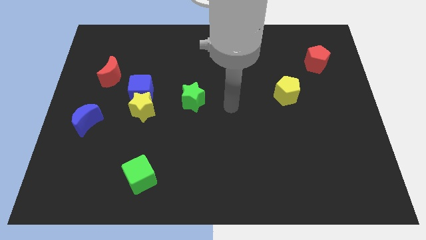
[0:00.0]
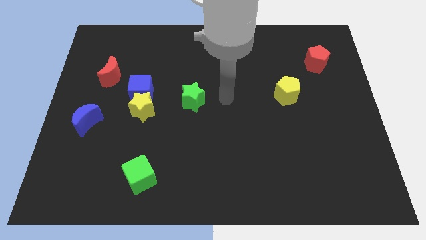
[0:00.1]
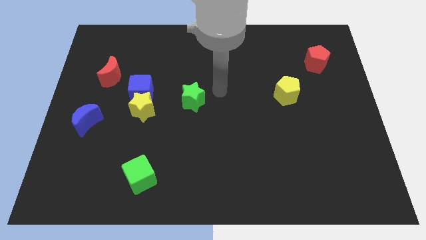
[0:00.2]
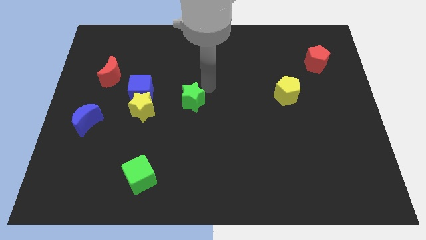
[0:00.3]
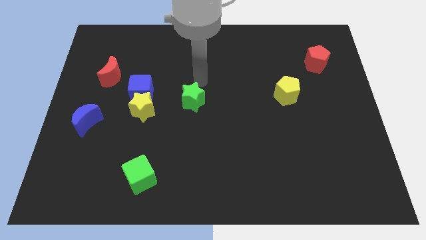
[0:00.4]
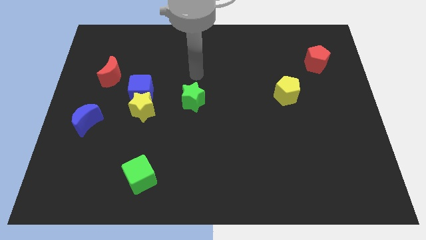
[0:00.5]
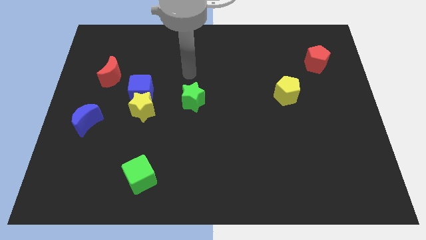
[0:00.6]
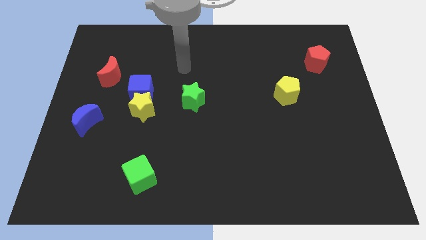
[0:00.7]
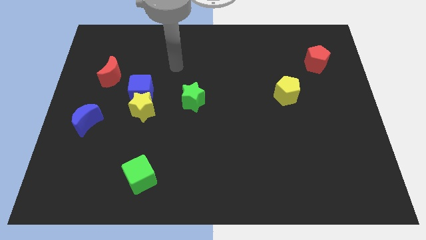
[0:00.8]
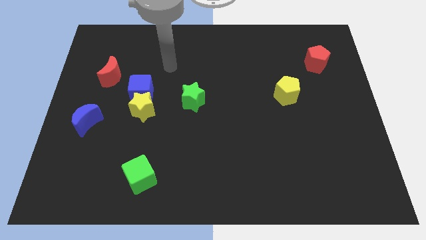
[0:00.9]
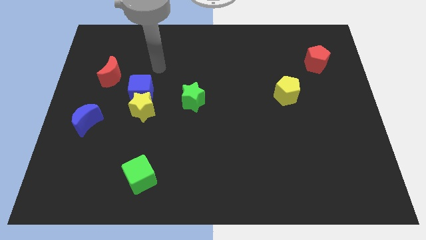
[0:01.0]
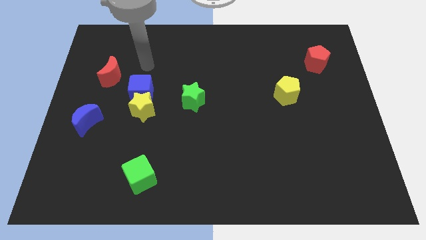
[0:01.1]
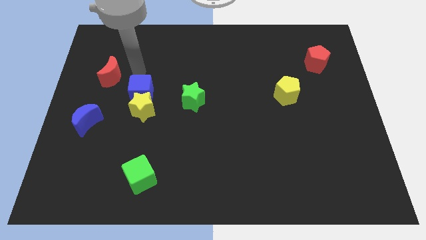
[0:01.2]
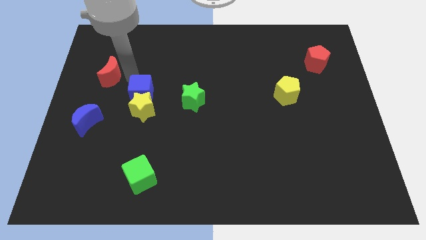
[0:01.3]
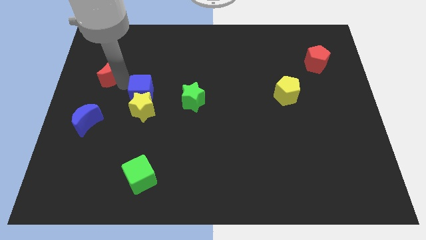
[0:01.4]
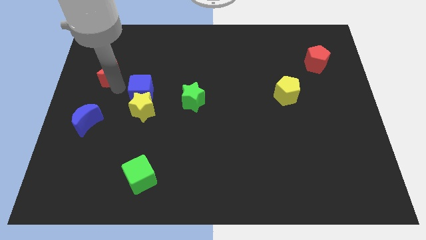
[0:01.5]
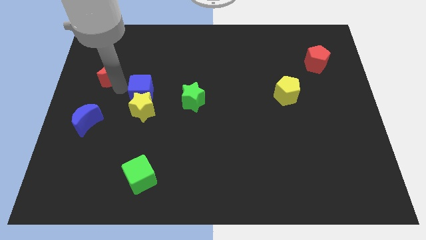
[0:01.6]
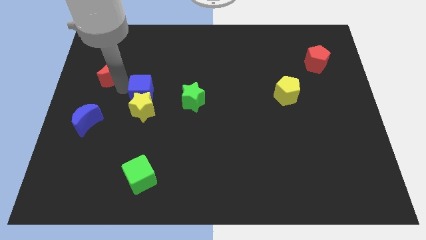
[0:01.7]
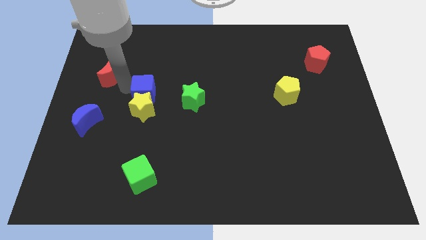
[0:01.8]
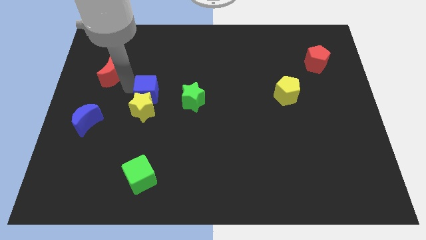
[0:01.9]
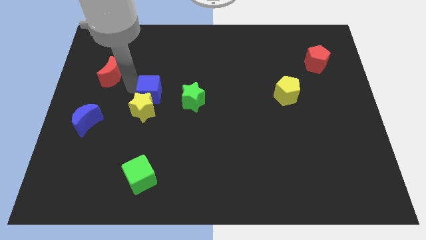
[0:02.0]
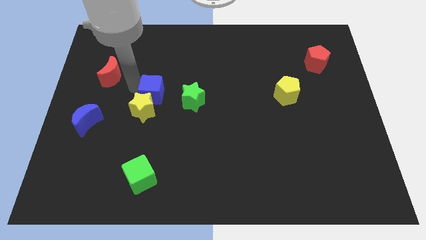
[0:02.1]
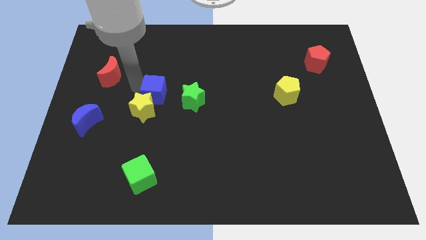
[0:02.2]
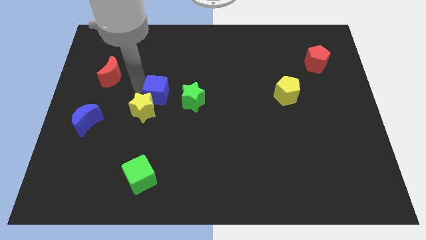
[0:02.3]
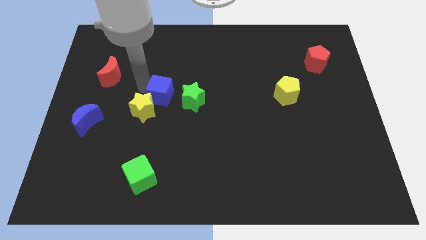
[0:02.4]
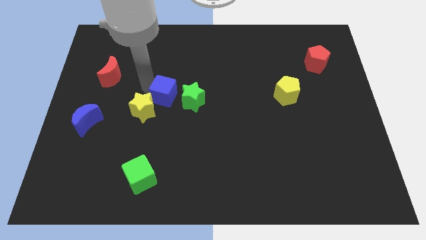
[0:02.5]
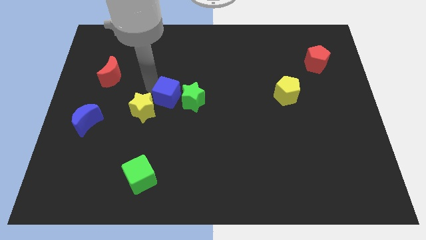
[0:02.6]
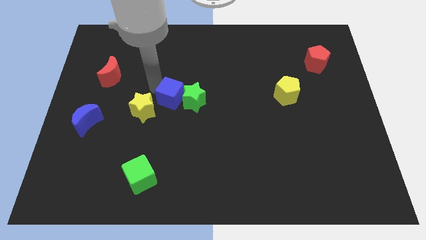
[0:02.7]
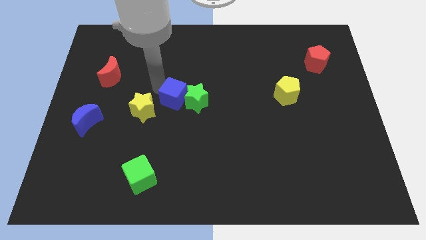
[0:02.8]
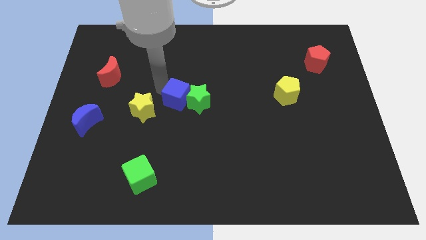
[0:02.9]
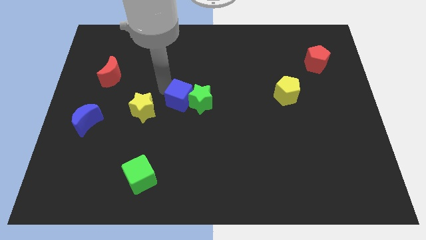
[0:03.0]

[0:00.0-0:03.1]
slightly push the blue cube downwards and to the right

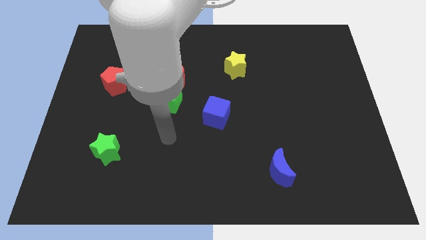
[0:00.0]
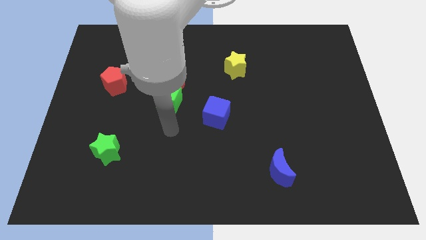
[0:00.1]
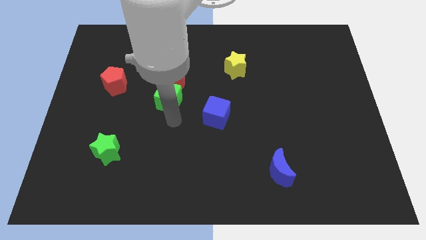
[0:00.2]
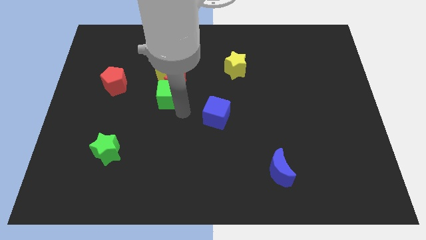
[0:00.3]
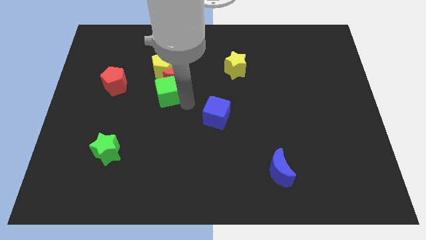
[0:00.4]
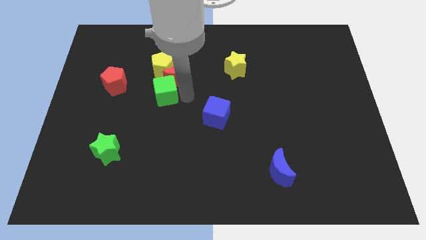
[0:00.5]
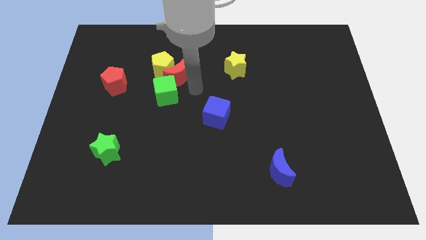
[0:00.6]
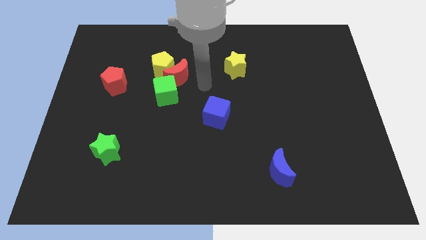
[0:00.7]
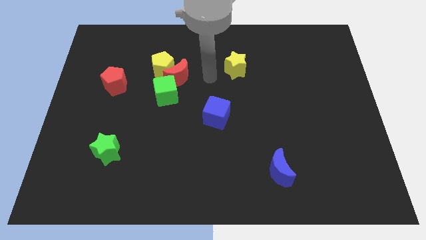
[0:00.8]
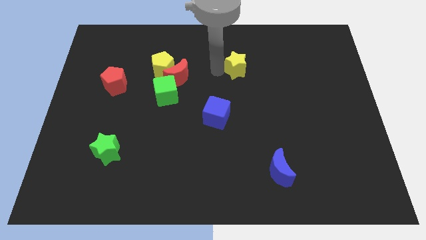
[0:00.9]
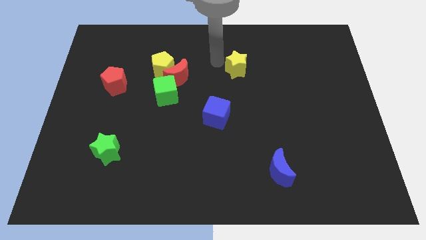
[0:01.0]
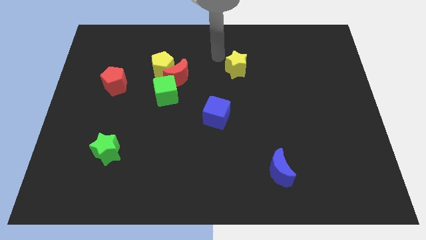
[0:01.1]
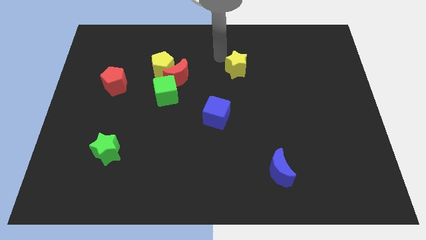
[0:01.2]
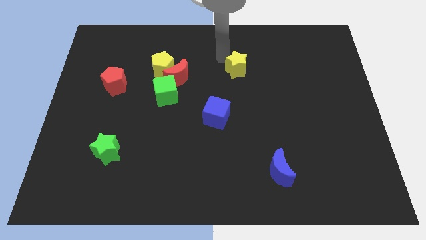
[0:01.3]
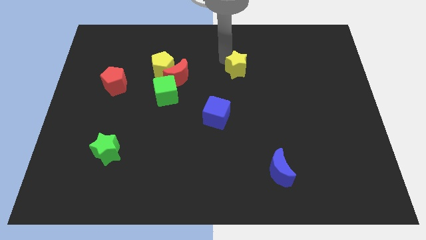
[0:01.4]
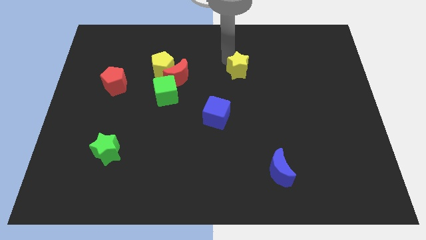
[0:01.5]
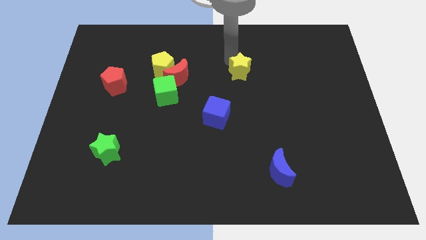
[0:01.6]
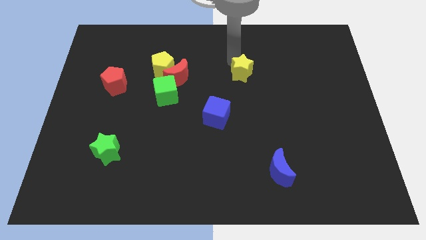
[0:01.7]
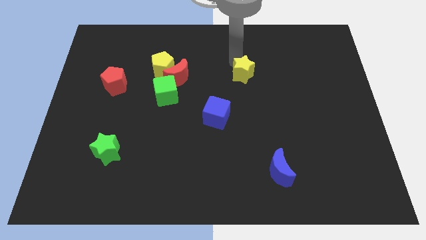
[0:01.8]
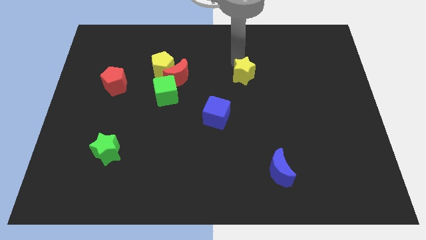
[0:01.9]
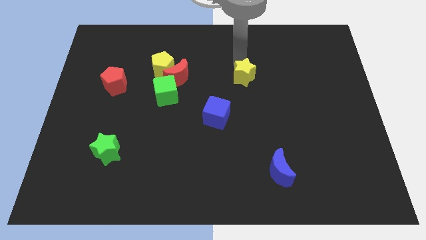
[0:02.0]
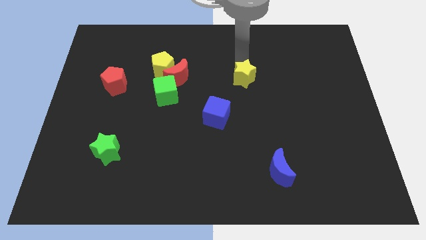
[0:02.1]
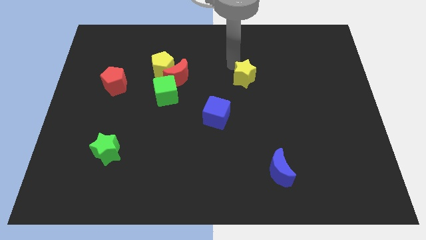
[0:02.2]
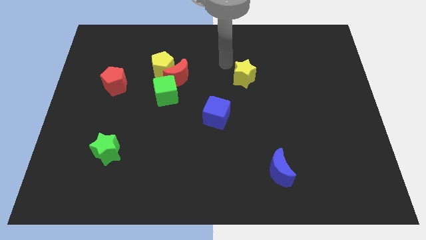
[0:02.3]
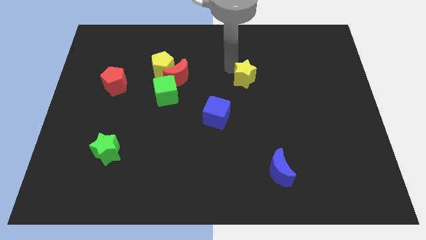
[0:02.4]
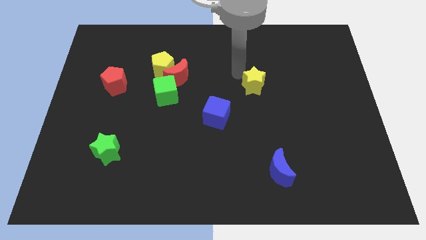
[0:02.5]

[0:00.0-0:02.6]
slide the yellow star slightly diagonally downwards and right

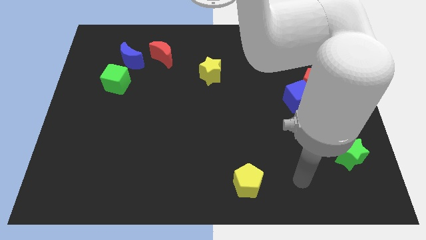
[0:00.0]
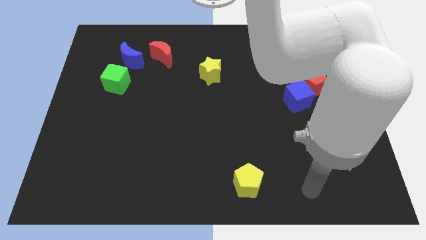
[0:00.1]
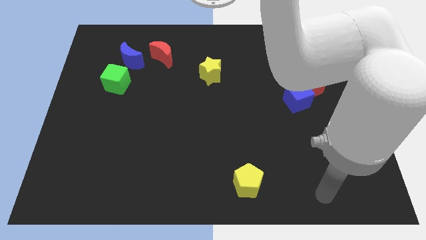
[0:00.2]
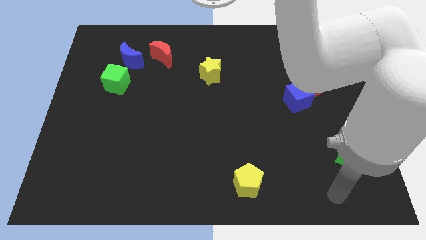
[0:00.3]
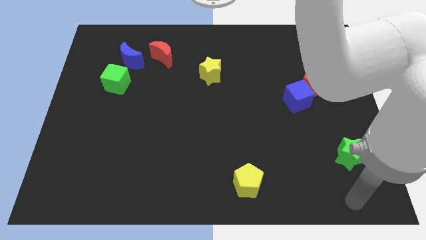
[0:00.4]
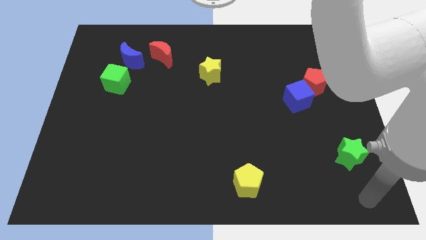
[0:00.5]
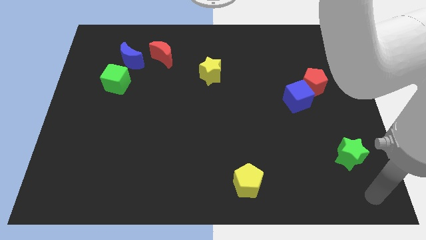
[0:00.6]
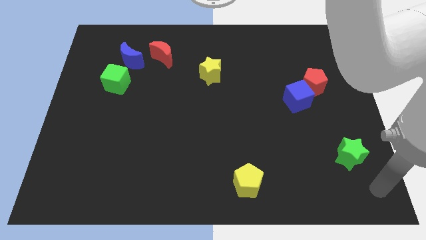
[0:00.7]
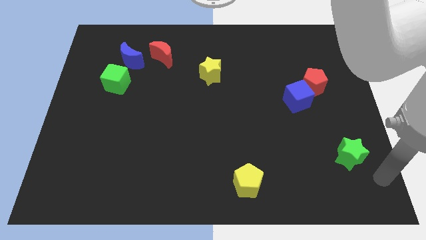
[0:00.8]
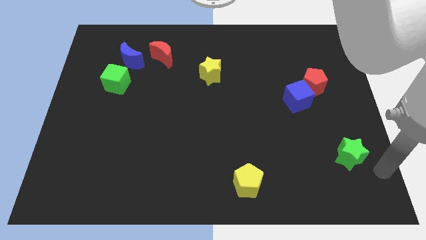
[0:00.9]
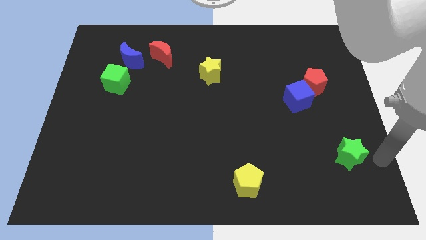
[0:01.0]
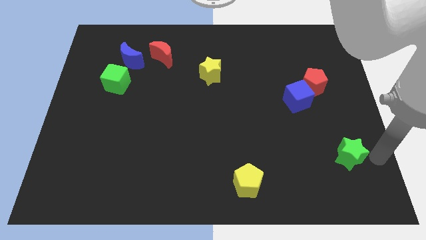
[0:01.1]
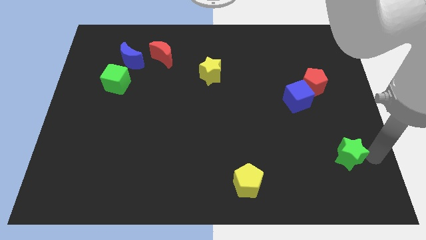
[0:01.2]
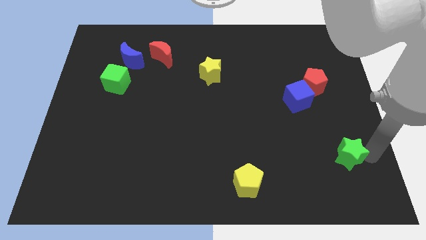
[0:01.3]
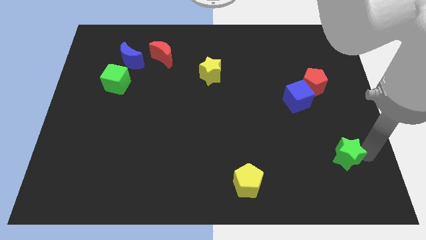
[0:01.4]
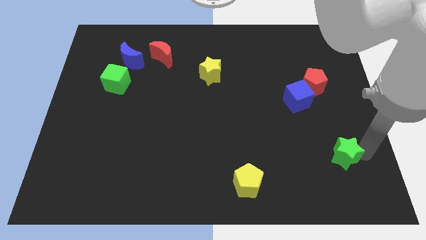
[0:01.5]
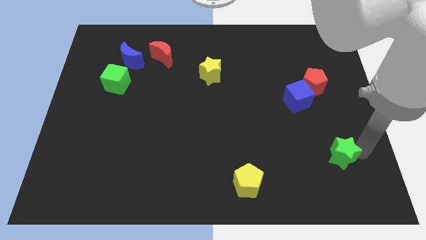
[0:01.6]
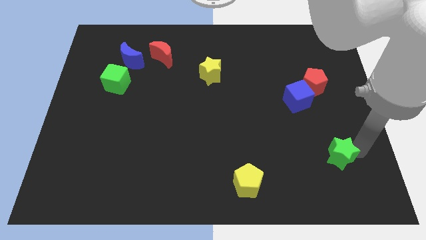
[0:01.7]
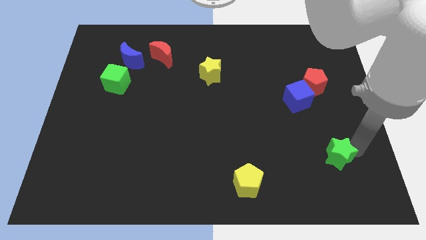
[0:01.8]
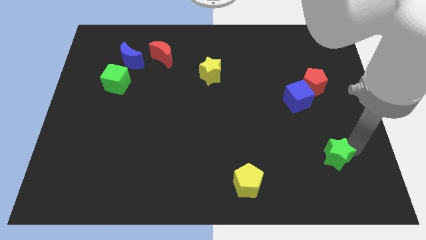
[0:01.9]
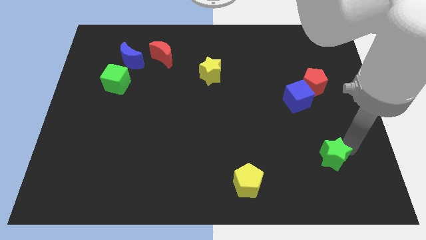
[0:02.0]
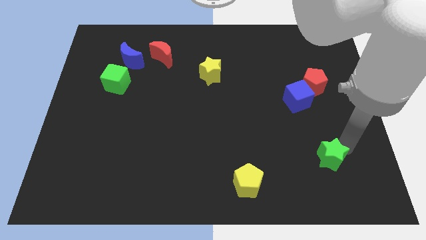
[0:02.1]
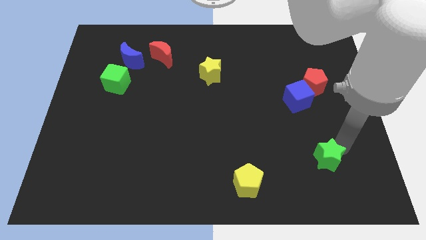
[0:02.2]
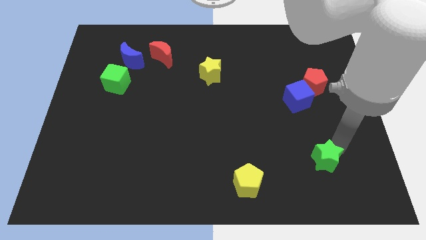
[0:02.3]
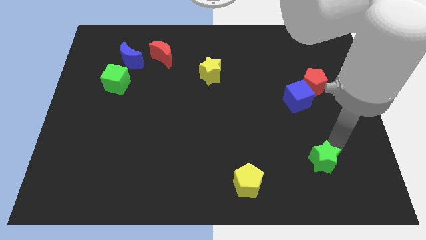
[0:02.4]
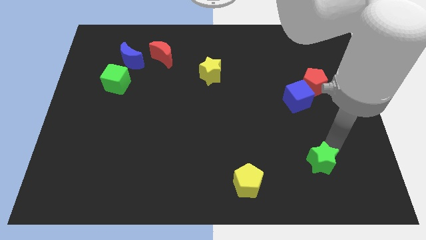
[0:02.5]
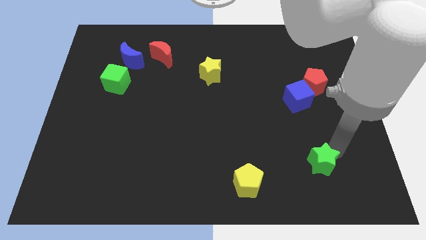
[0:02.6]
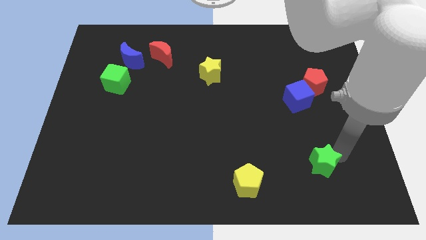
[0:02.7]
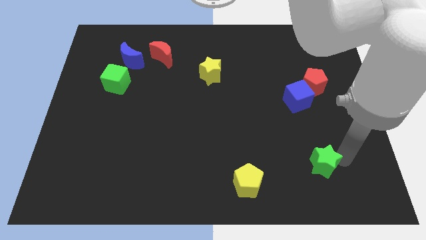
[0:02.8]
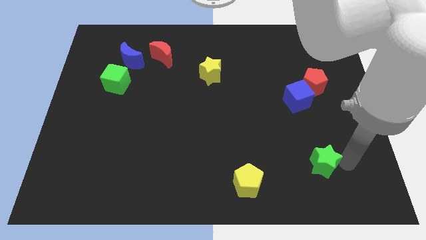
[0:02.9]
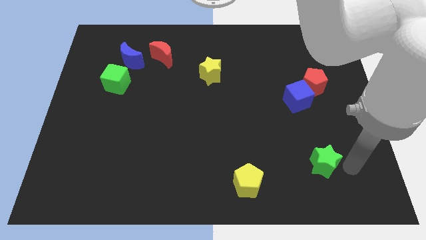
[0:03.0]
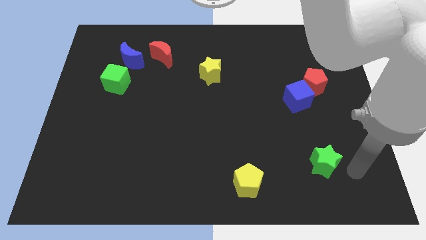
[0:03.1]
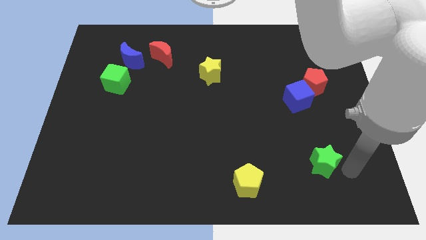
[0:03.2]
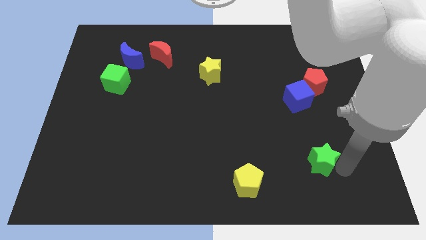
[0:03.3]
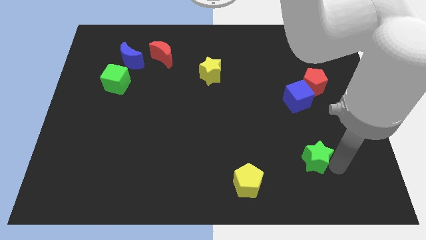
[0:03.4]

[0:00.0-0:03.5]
slightly slide the green star left
